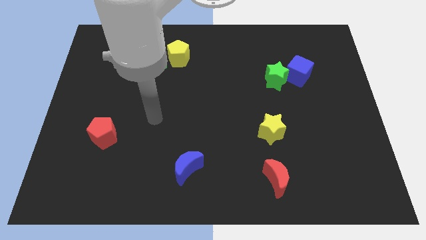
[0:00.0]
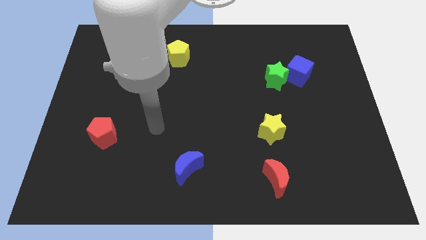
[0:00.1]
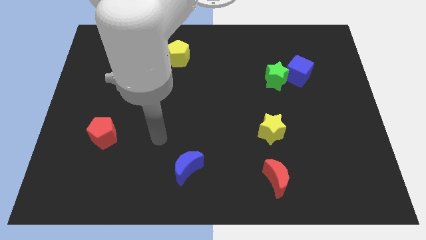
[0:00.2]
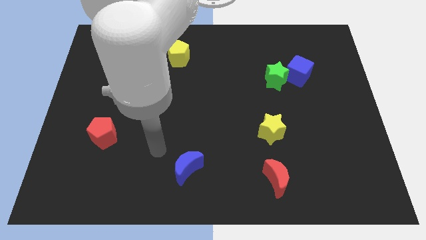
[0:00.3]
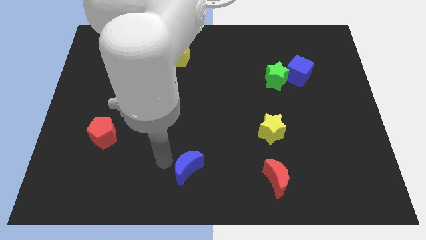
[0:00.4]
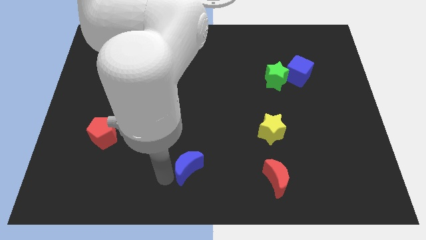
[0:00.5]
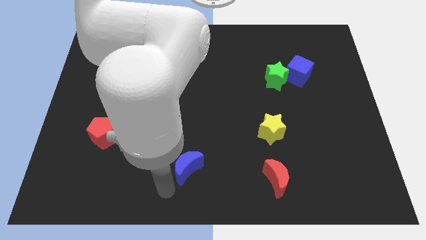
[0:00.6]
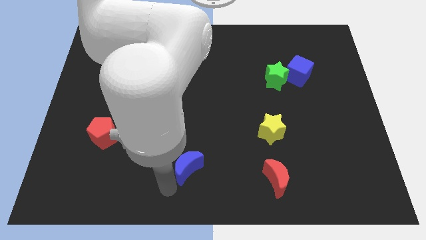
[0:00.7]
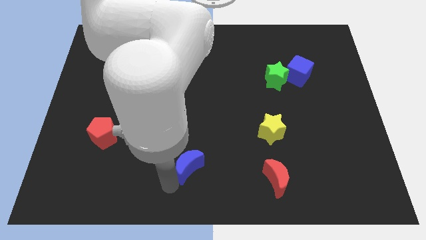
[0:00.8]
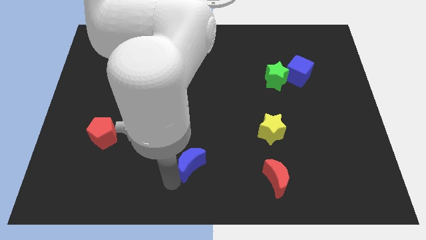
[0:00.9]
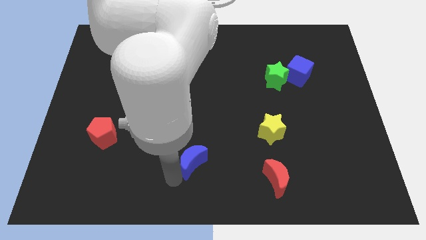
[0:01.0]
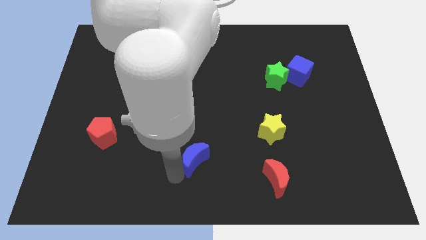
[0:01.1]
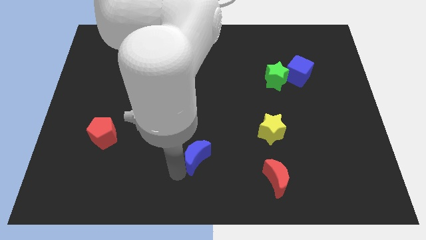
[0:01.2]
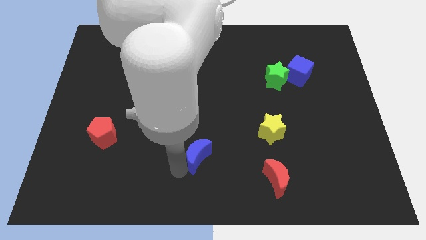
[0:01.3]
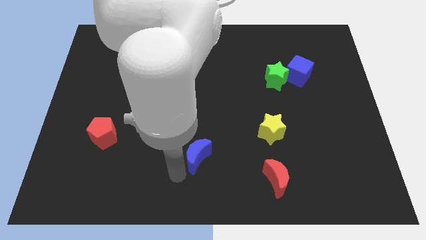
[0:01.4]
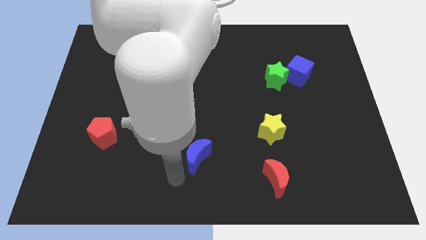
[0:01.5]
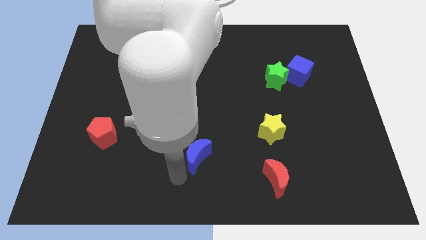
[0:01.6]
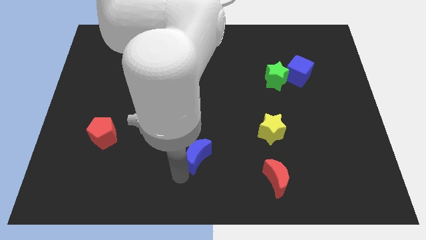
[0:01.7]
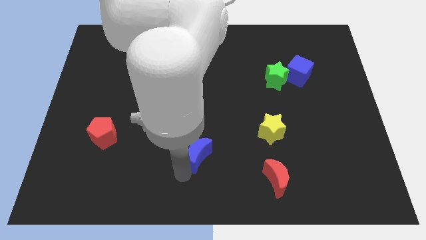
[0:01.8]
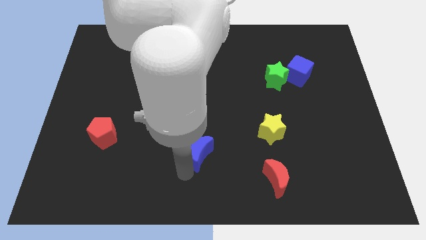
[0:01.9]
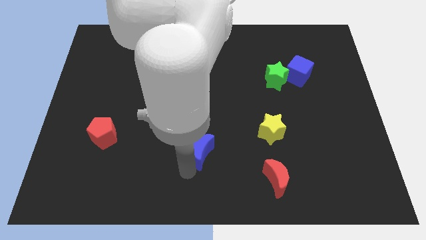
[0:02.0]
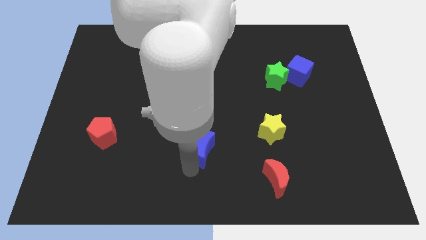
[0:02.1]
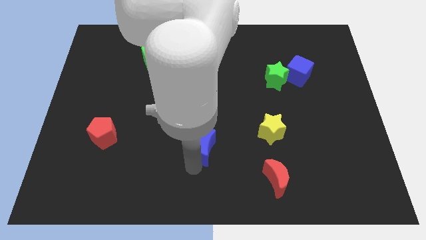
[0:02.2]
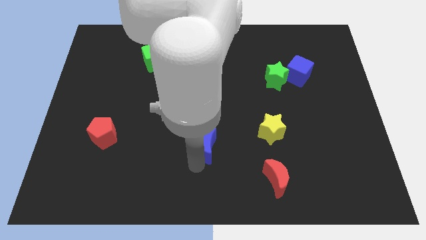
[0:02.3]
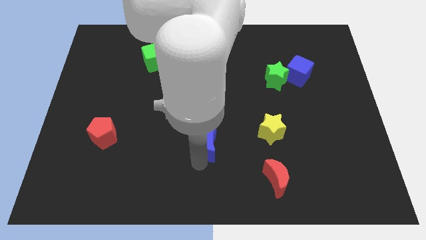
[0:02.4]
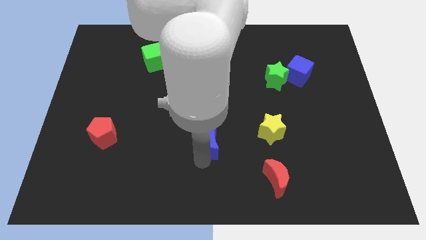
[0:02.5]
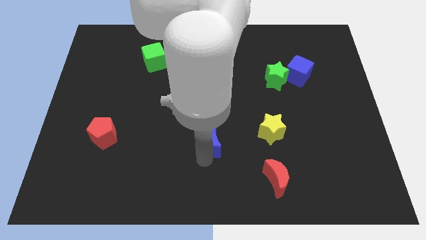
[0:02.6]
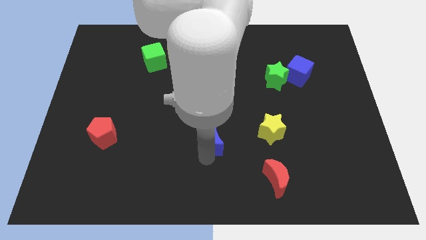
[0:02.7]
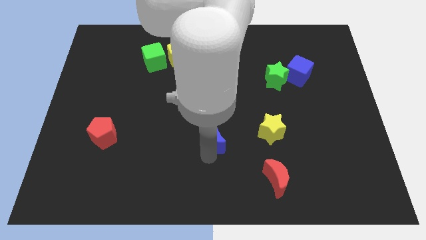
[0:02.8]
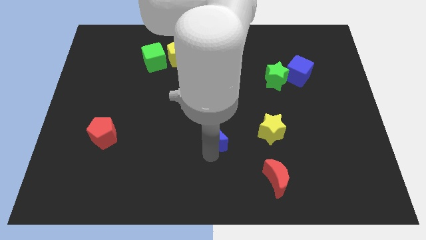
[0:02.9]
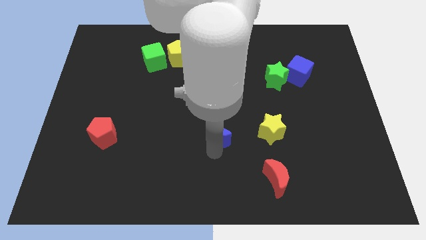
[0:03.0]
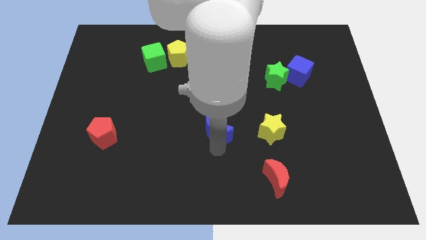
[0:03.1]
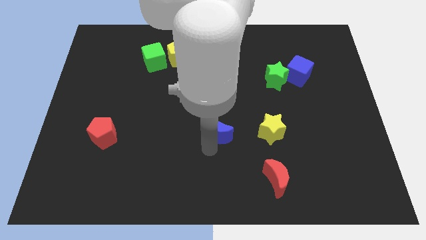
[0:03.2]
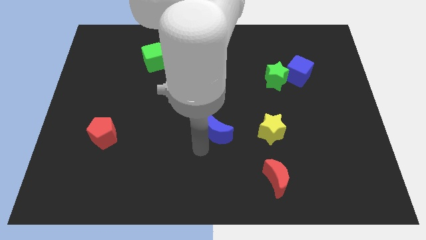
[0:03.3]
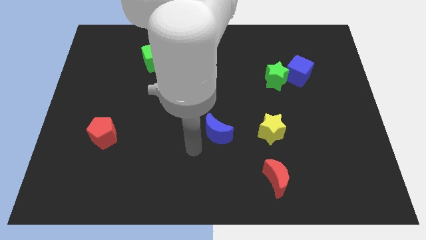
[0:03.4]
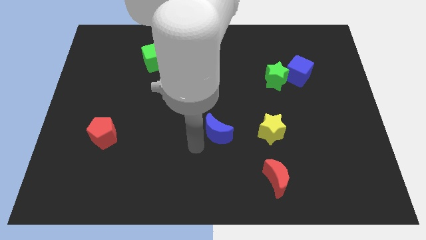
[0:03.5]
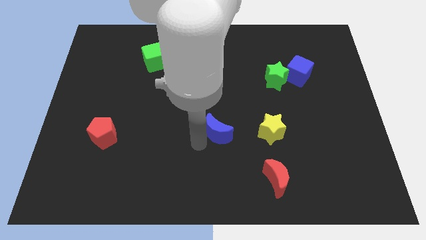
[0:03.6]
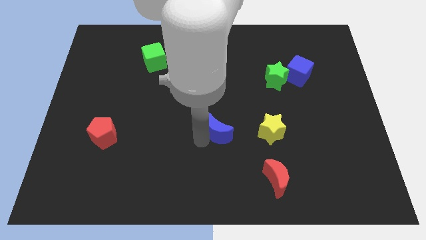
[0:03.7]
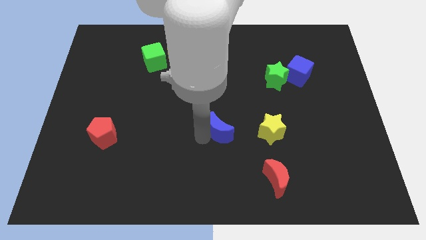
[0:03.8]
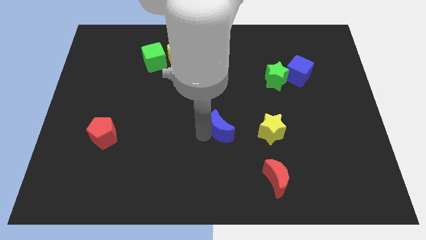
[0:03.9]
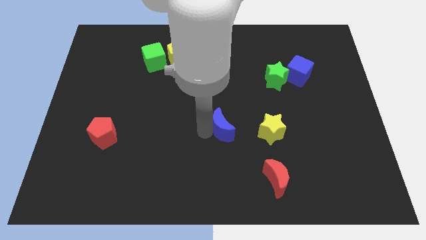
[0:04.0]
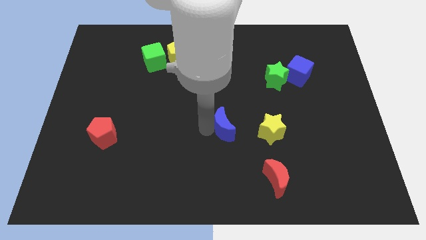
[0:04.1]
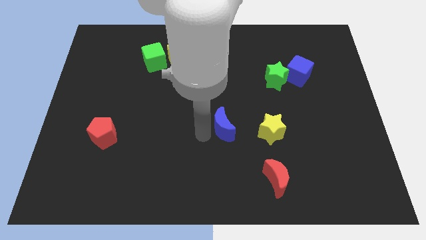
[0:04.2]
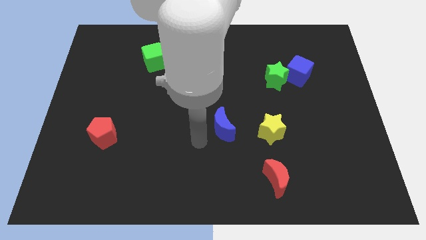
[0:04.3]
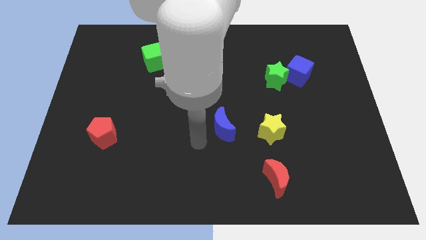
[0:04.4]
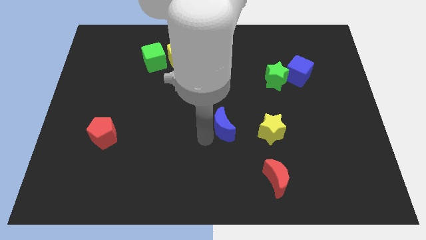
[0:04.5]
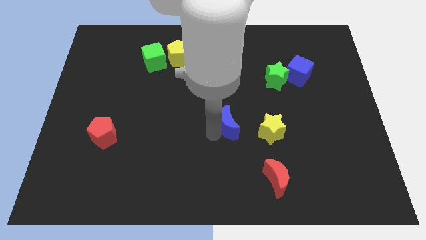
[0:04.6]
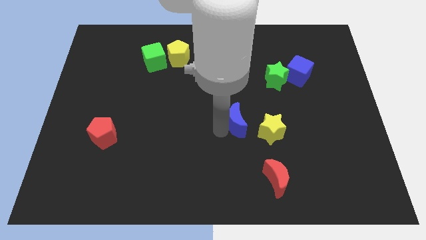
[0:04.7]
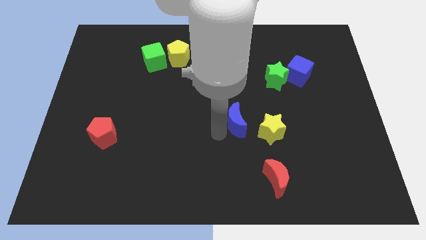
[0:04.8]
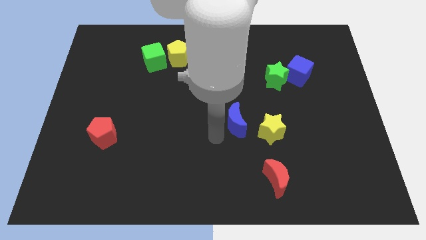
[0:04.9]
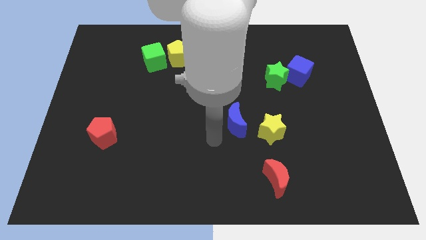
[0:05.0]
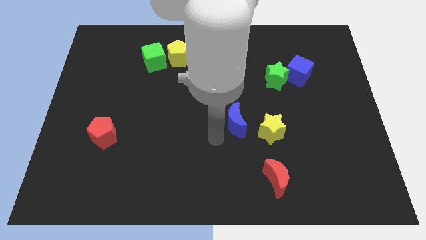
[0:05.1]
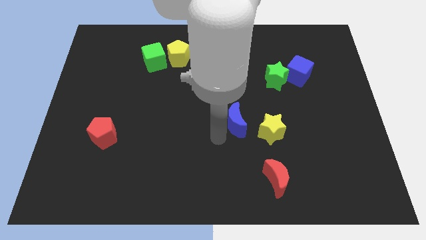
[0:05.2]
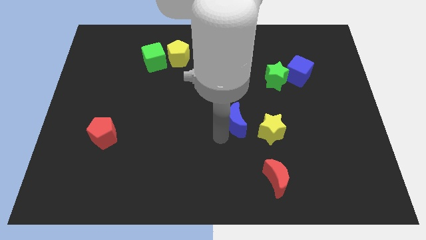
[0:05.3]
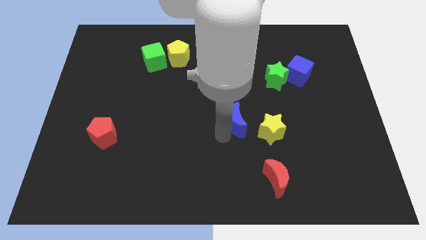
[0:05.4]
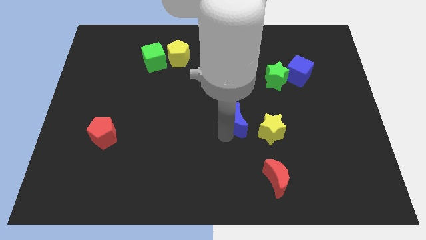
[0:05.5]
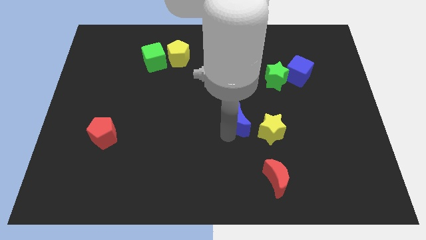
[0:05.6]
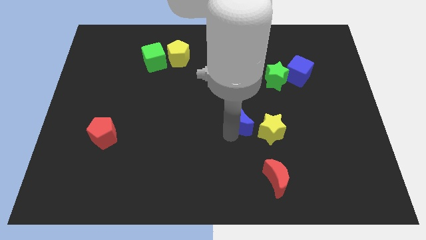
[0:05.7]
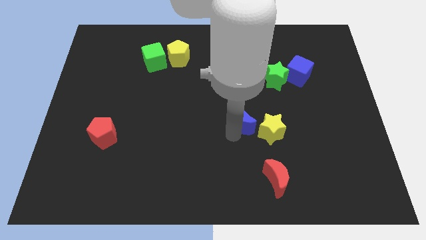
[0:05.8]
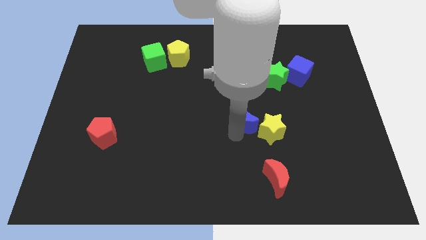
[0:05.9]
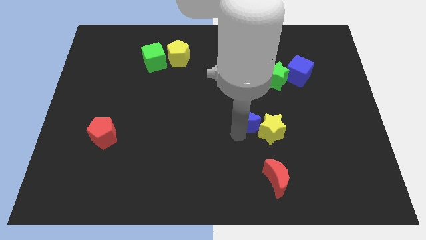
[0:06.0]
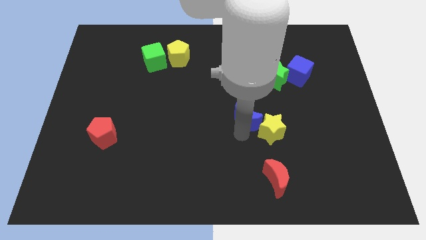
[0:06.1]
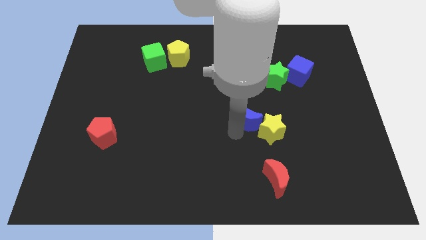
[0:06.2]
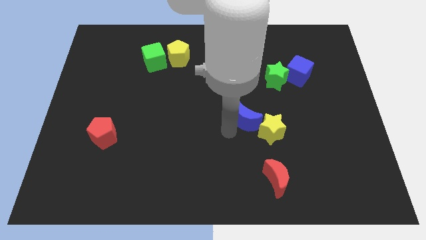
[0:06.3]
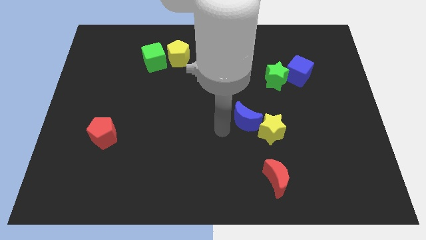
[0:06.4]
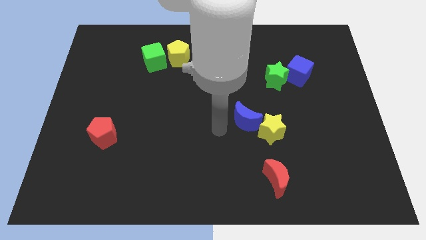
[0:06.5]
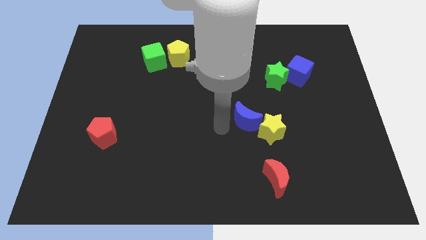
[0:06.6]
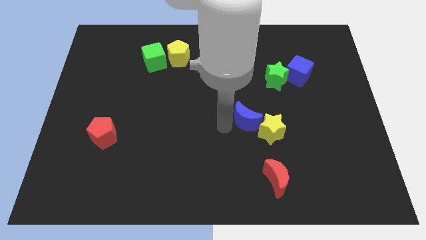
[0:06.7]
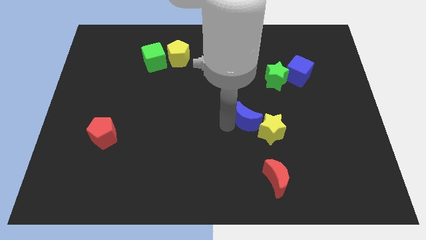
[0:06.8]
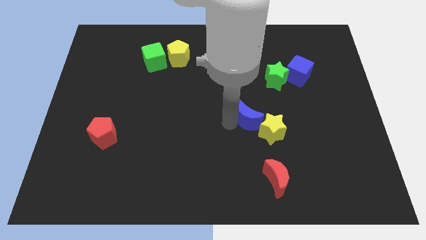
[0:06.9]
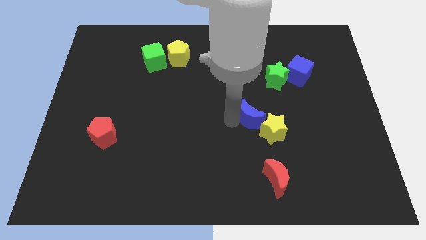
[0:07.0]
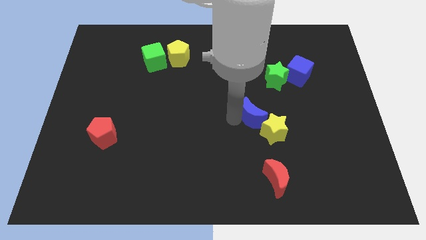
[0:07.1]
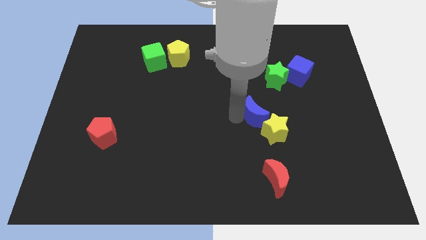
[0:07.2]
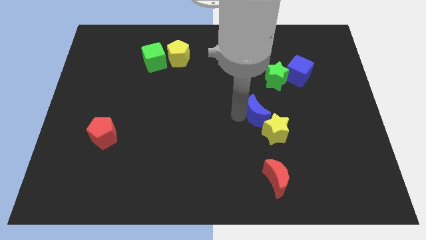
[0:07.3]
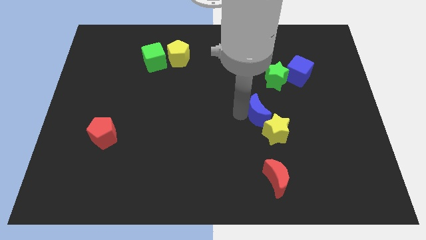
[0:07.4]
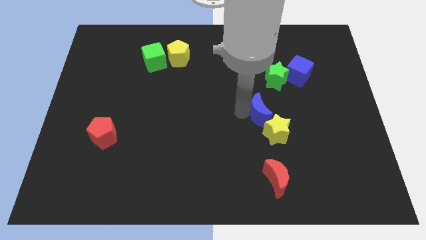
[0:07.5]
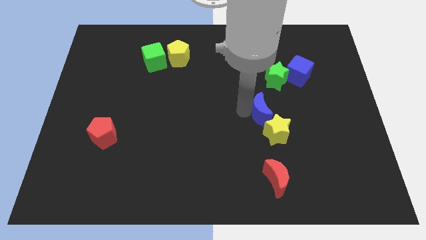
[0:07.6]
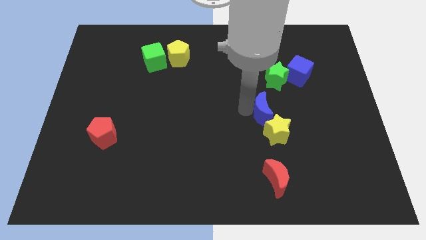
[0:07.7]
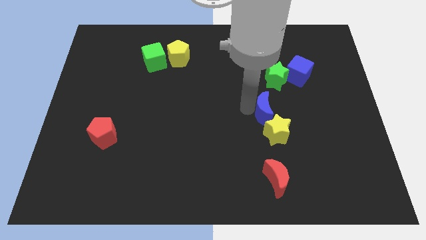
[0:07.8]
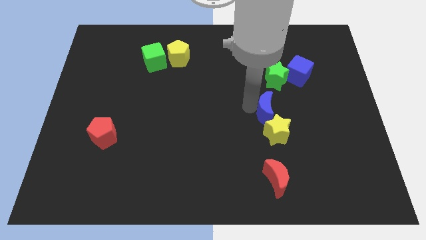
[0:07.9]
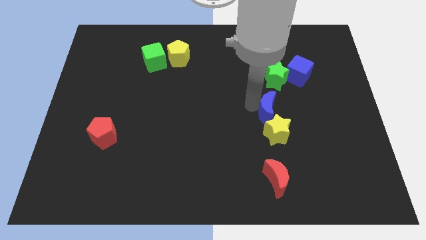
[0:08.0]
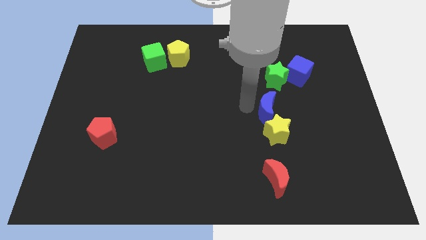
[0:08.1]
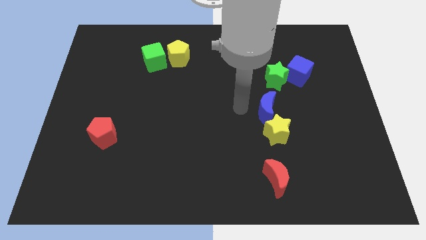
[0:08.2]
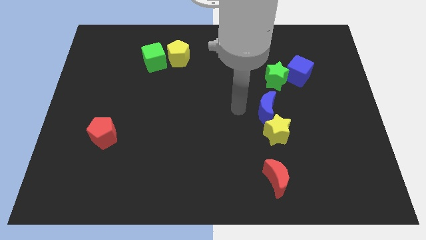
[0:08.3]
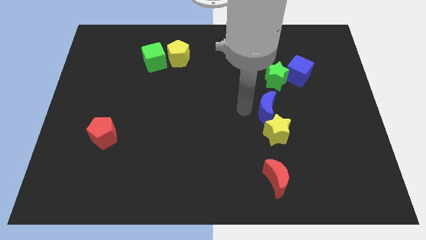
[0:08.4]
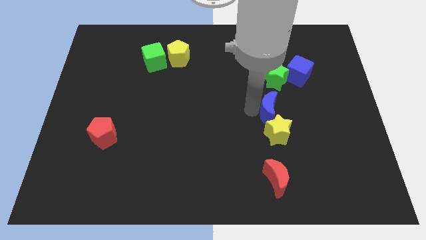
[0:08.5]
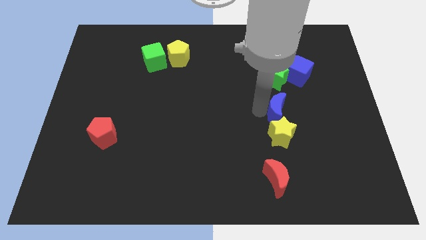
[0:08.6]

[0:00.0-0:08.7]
push the blue moon diagonally up and to the right of the yellow star

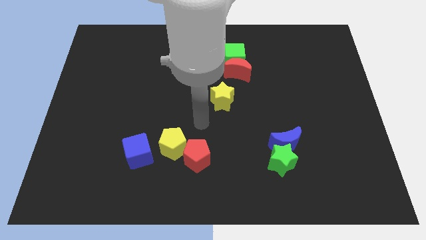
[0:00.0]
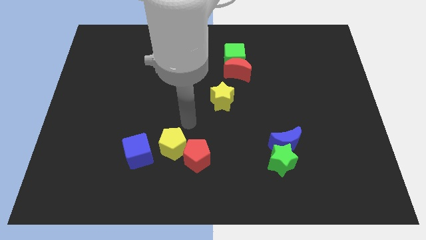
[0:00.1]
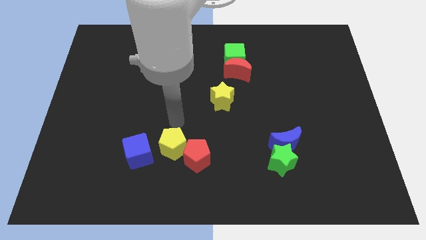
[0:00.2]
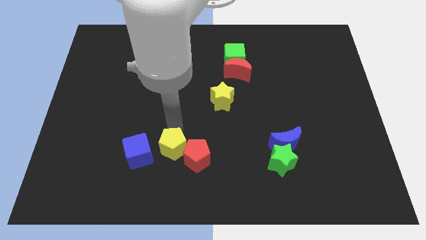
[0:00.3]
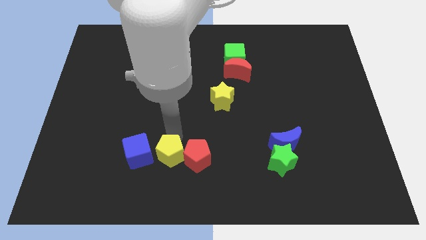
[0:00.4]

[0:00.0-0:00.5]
slide the yellow pentagon diagonally down and to the left of the red pentagon
